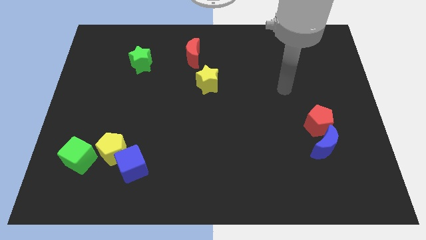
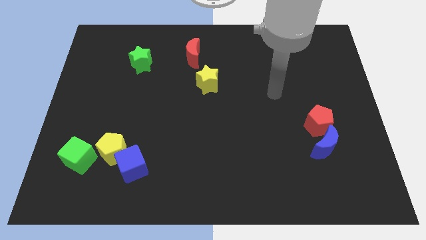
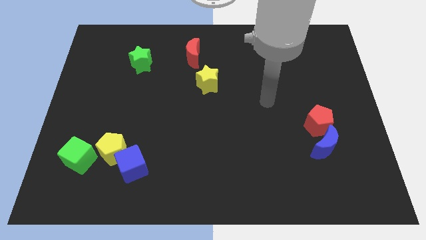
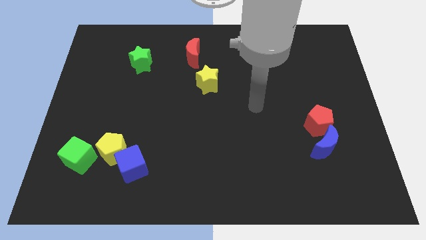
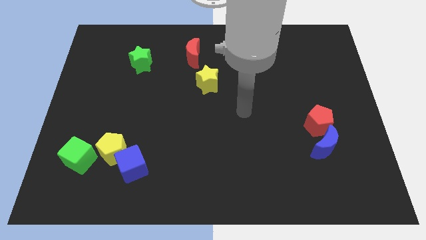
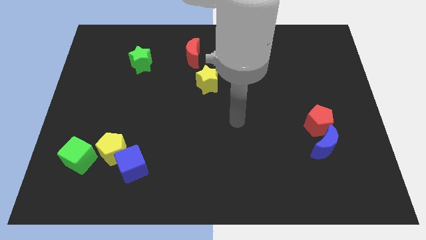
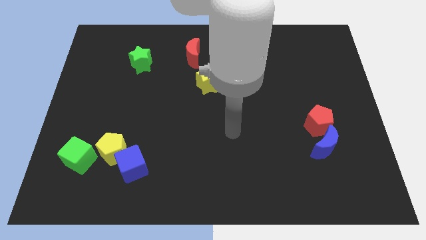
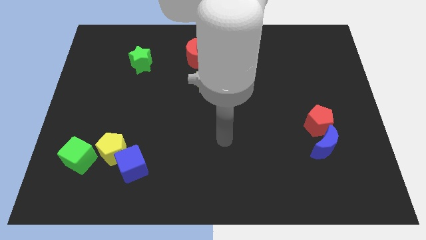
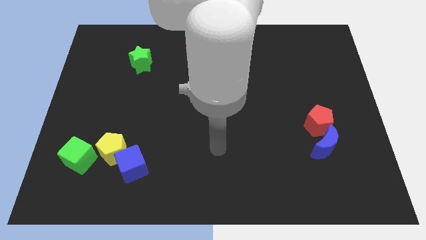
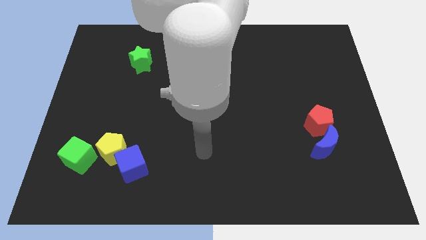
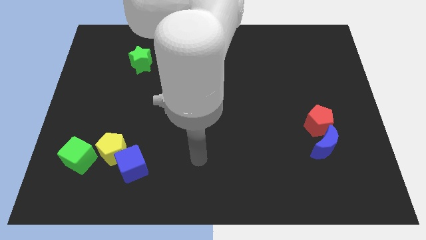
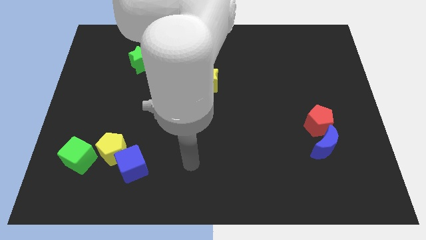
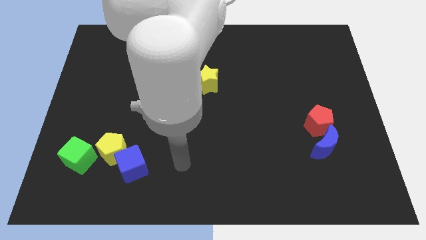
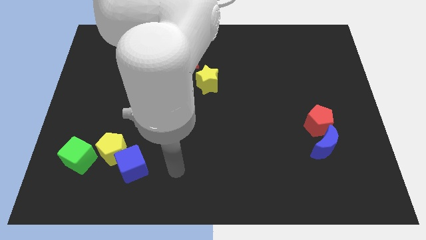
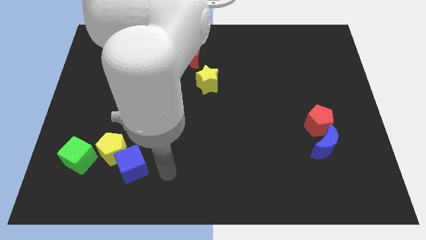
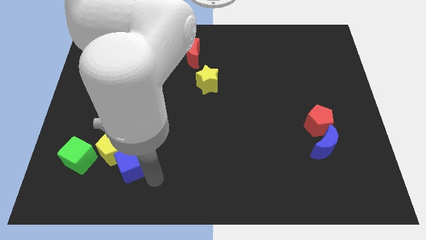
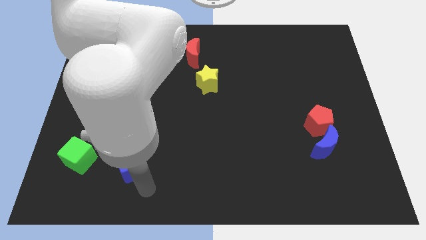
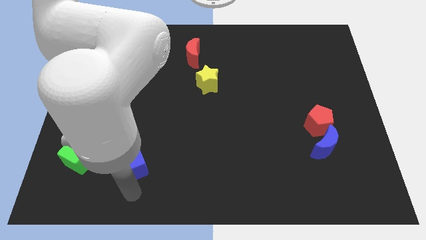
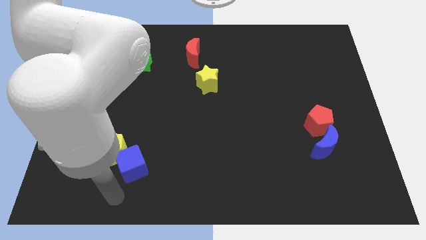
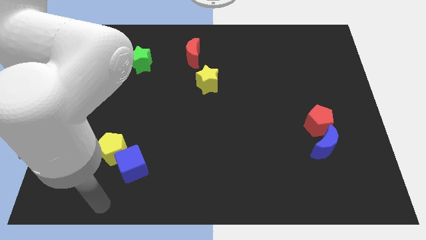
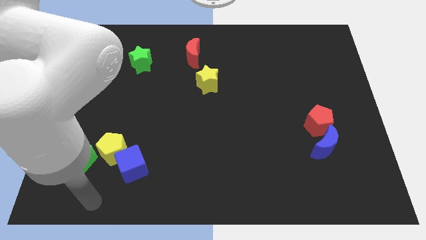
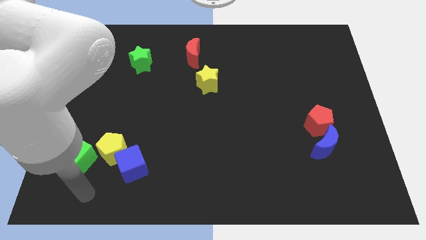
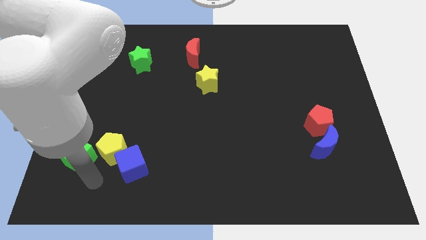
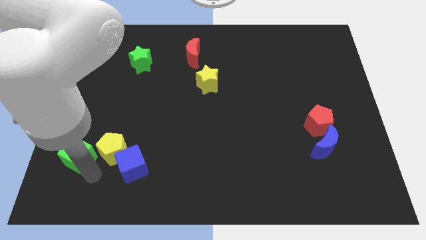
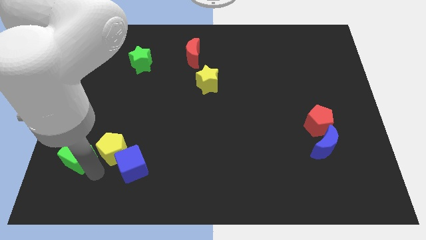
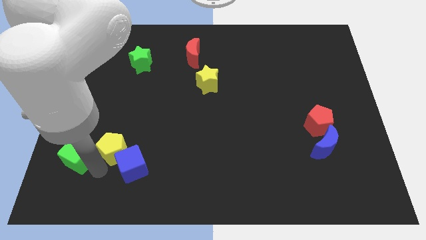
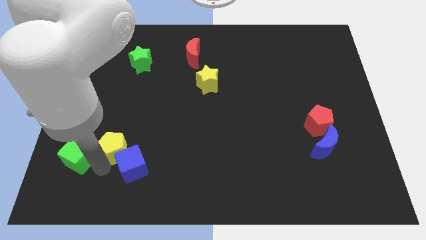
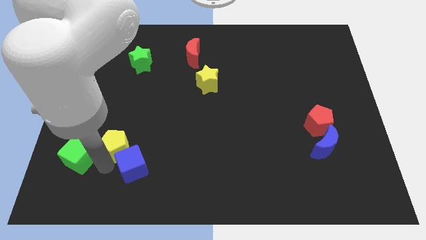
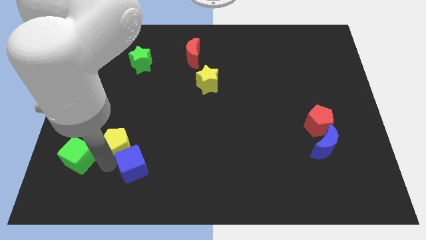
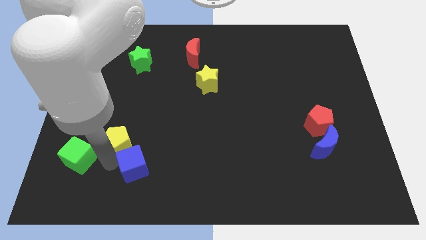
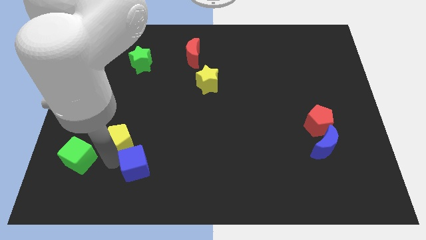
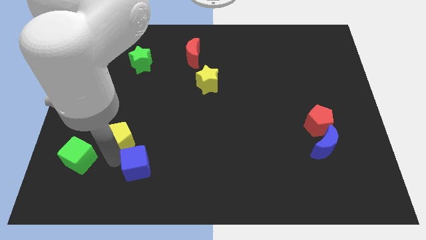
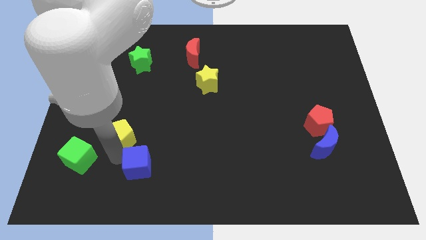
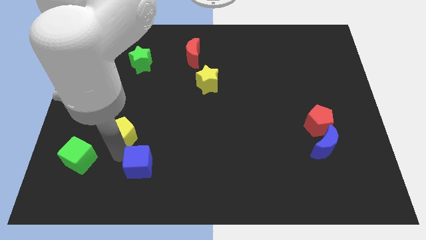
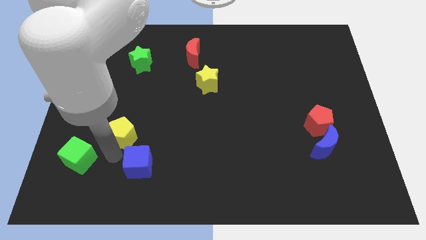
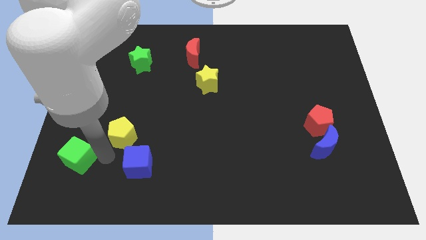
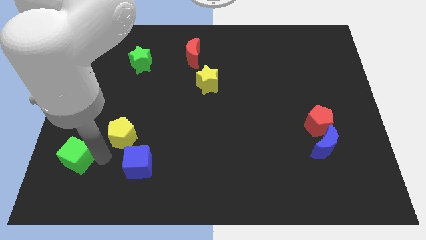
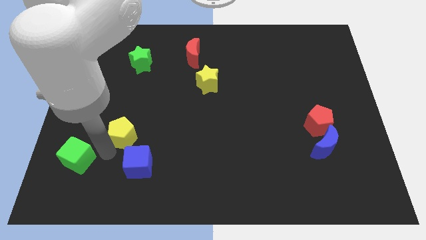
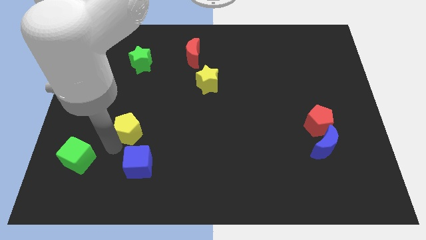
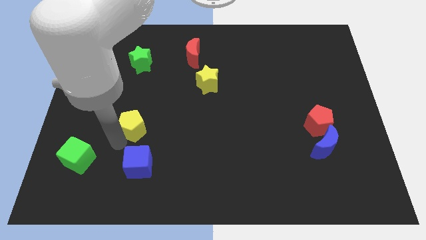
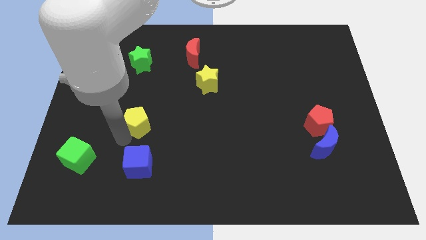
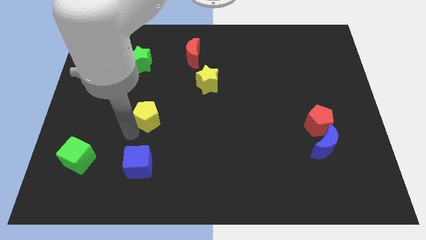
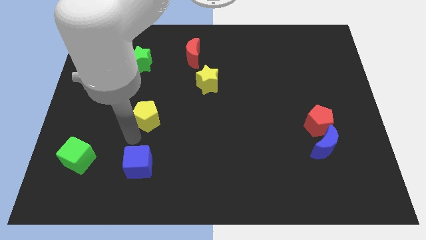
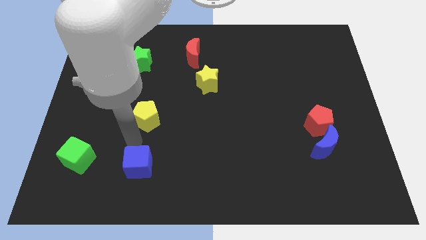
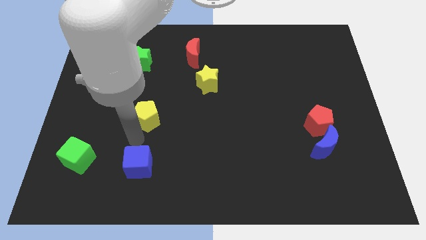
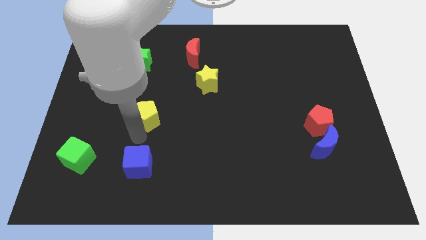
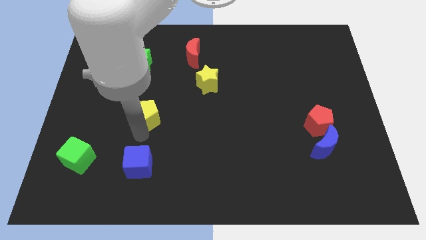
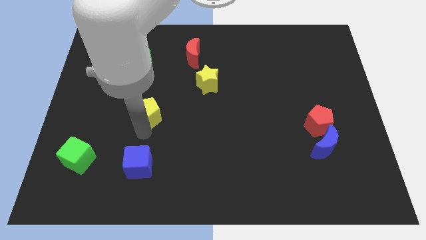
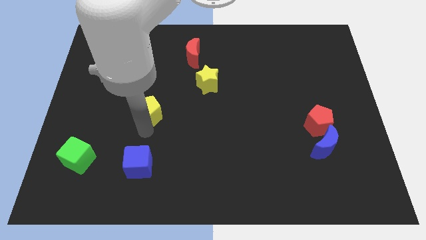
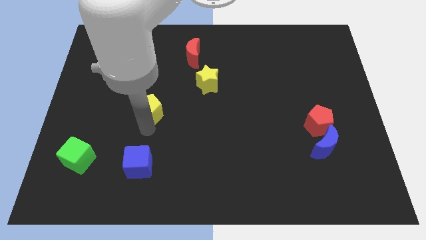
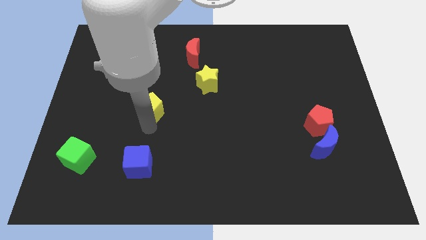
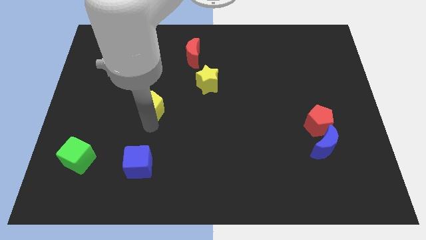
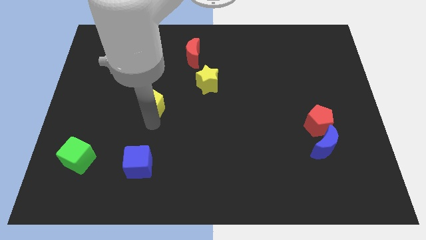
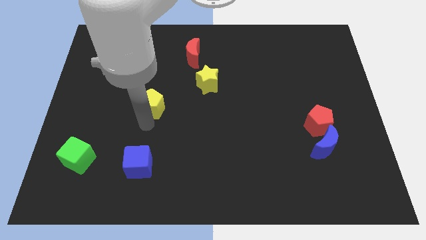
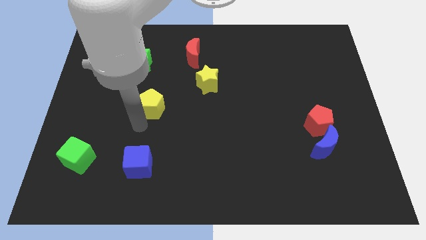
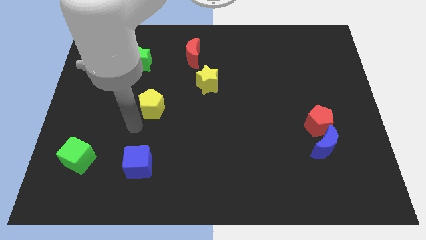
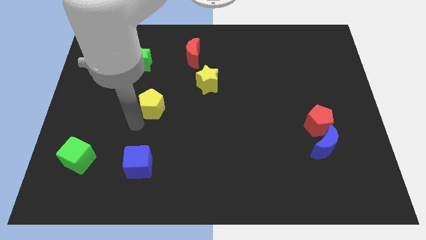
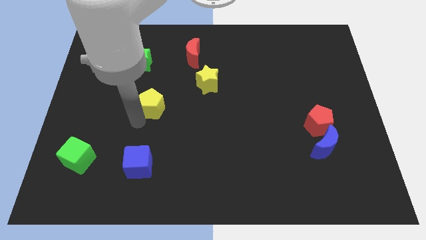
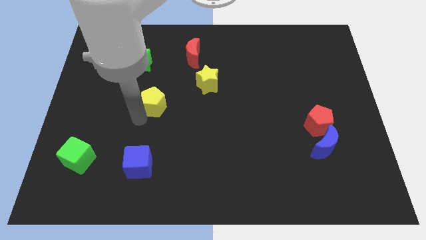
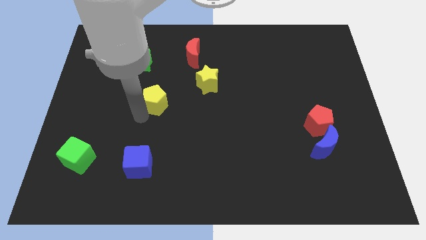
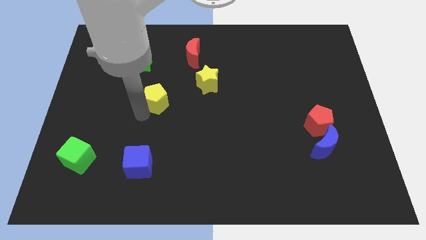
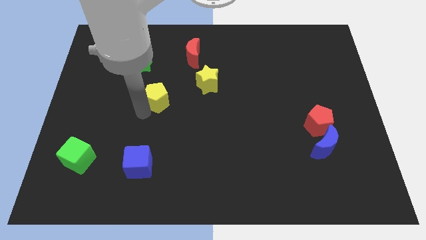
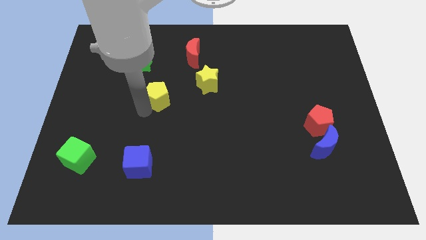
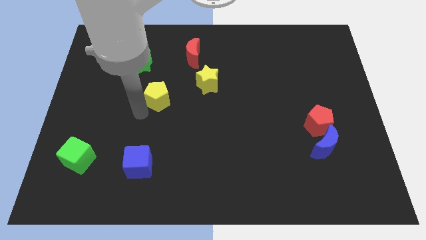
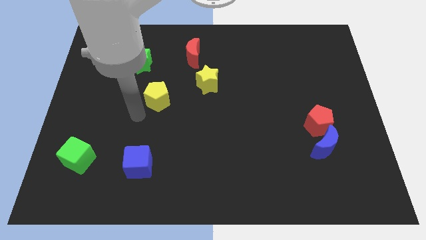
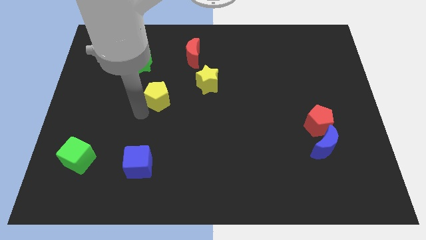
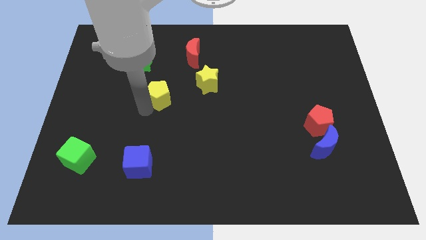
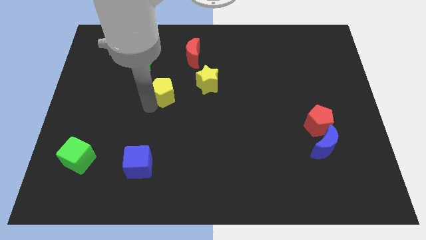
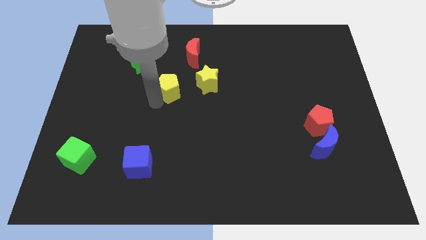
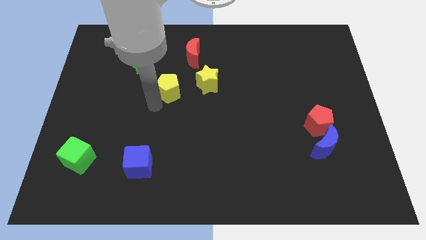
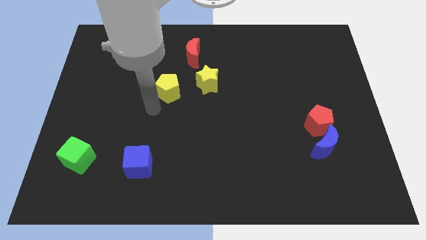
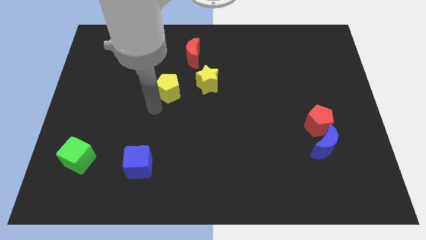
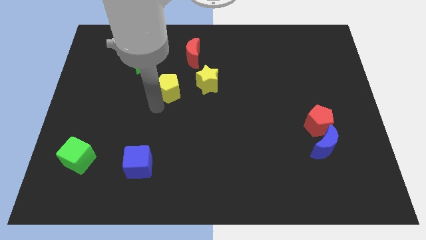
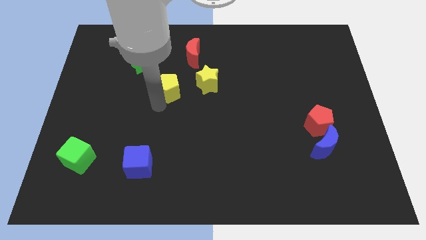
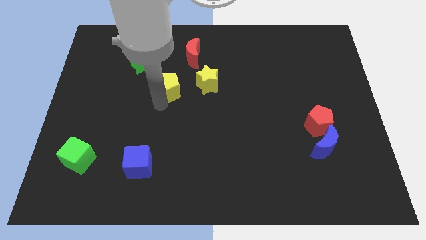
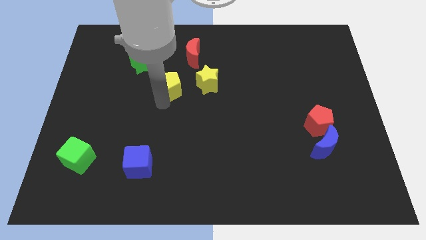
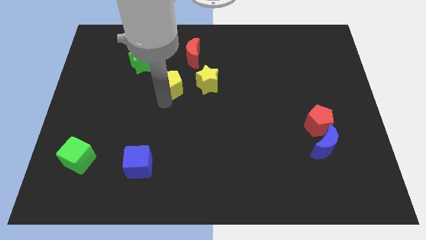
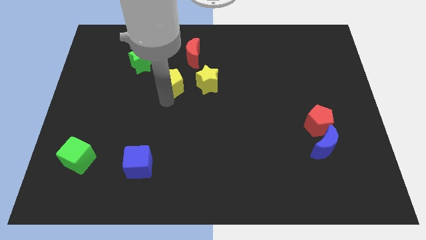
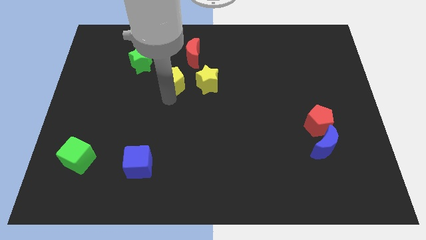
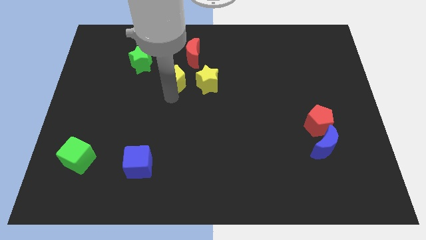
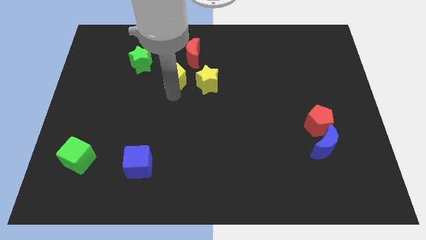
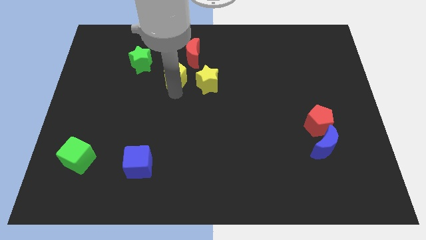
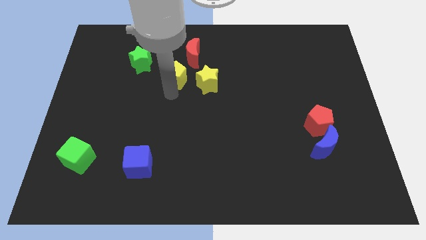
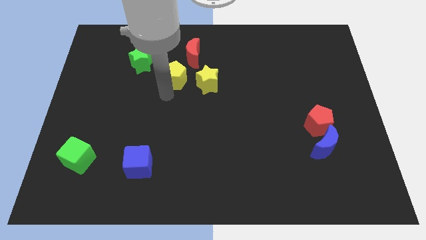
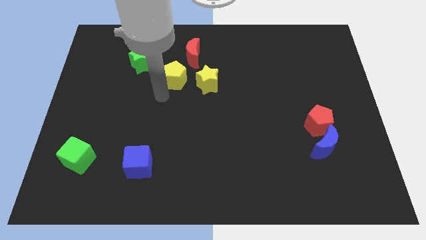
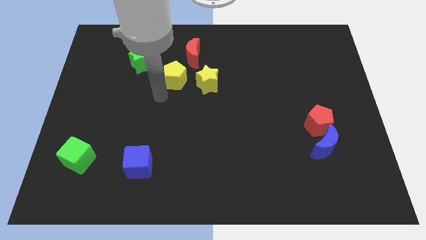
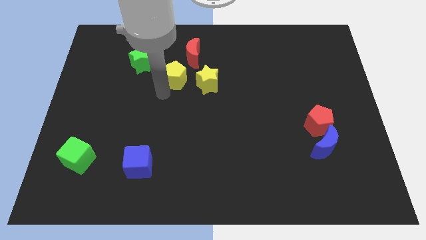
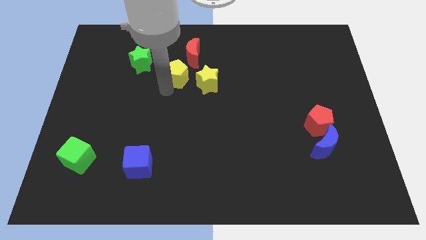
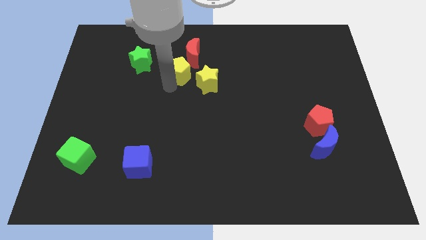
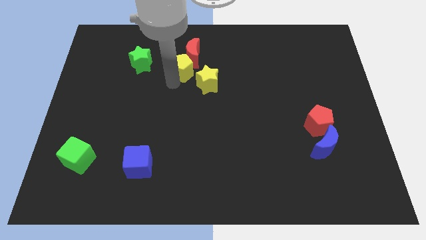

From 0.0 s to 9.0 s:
move the yellow pentagon next to the red moon
